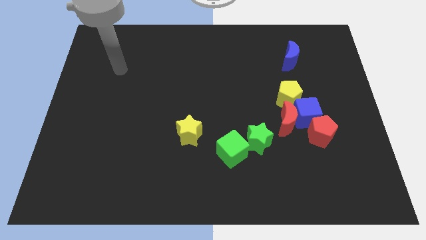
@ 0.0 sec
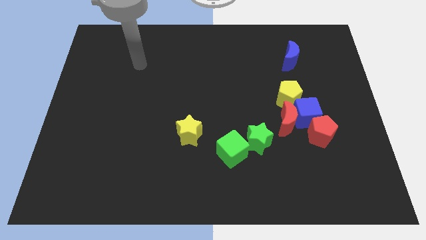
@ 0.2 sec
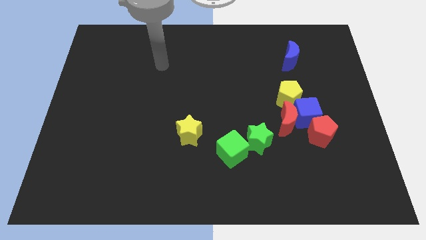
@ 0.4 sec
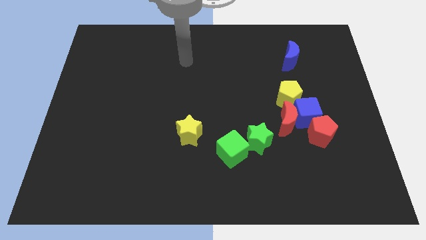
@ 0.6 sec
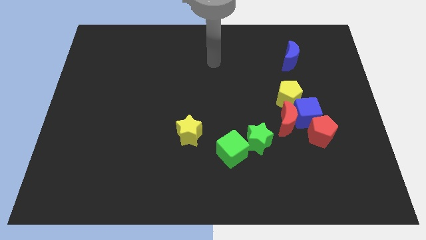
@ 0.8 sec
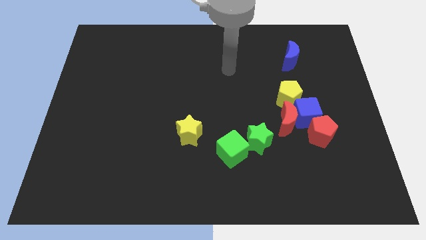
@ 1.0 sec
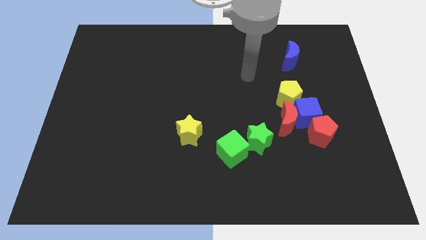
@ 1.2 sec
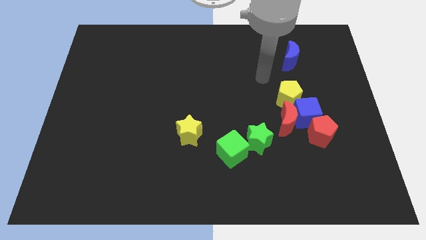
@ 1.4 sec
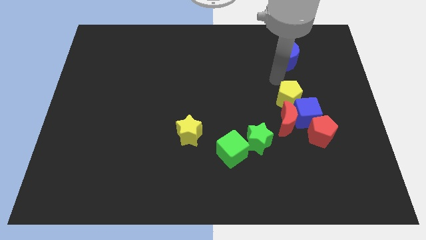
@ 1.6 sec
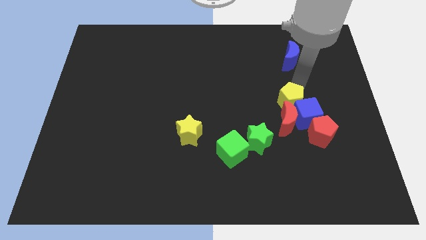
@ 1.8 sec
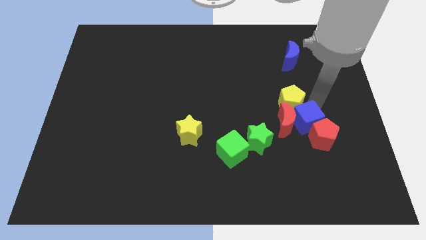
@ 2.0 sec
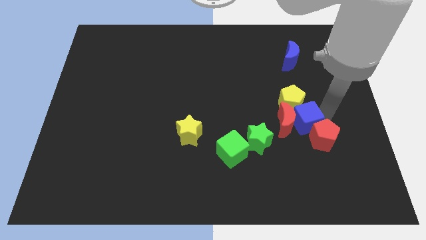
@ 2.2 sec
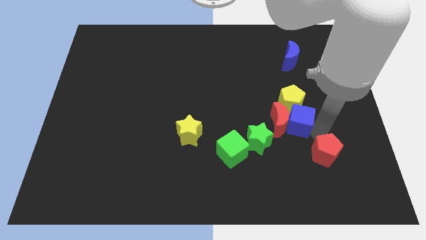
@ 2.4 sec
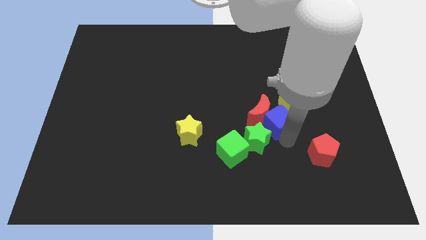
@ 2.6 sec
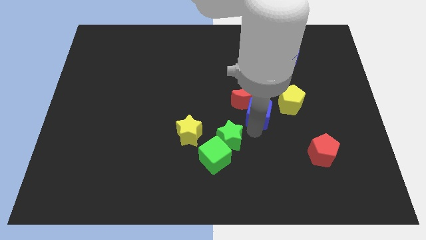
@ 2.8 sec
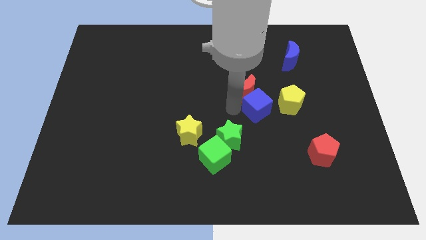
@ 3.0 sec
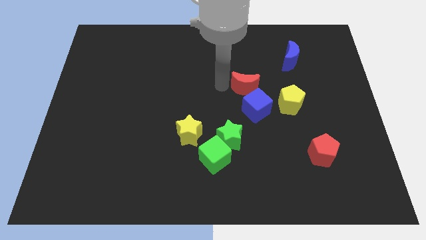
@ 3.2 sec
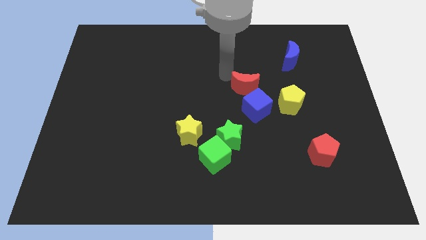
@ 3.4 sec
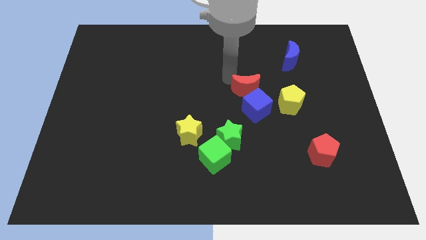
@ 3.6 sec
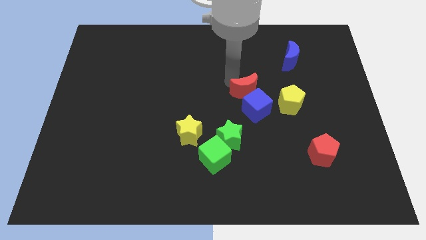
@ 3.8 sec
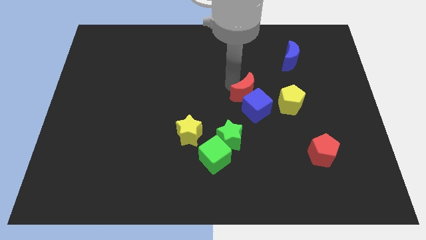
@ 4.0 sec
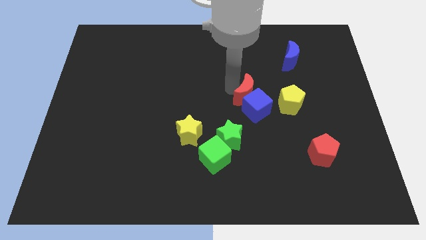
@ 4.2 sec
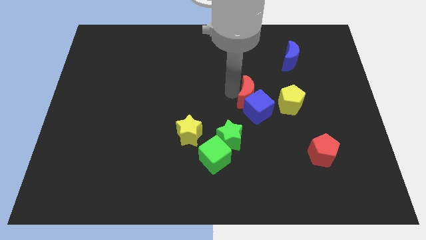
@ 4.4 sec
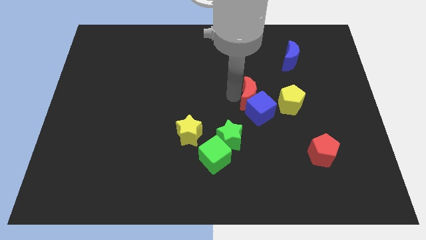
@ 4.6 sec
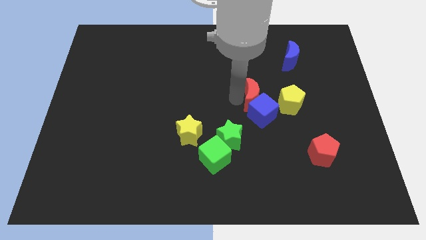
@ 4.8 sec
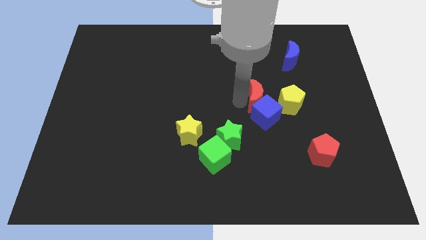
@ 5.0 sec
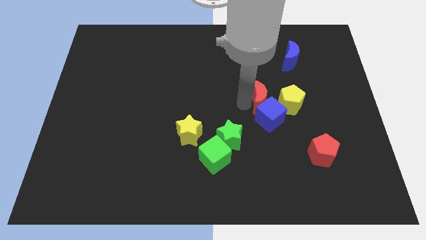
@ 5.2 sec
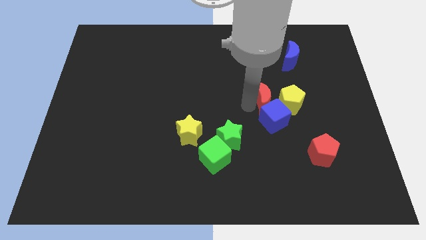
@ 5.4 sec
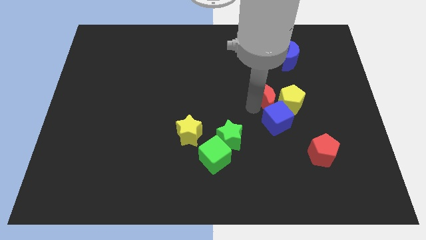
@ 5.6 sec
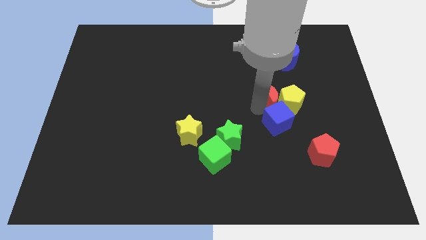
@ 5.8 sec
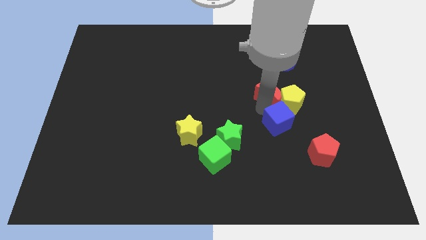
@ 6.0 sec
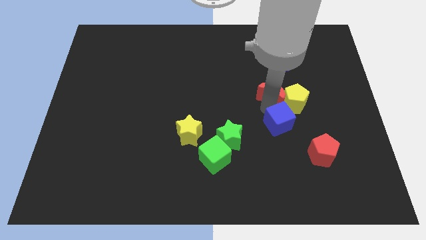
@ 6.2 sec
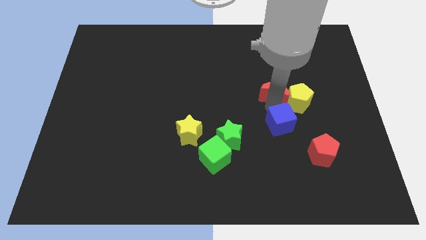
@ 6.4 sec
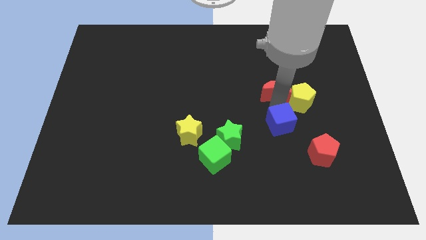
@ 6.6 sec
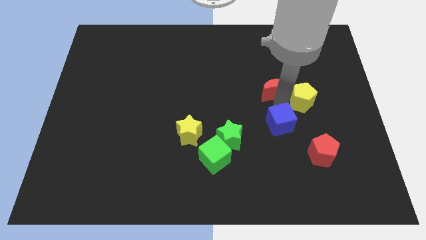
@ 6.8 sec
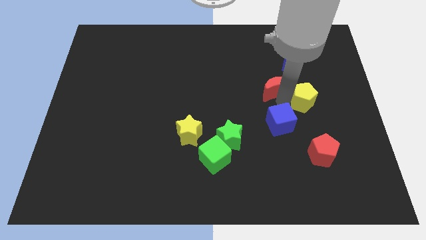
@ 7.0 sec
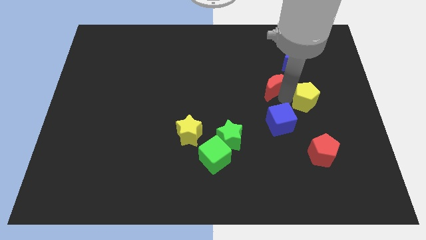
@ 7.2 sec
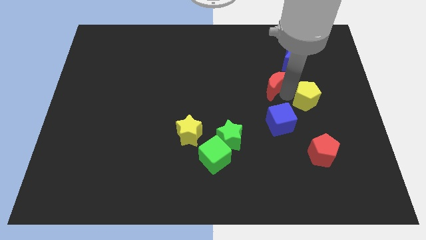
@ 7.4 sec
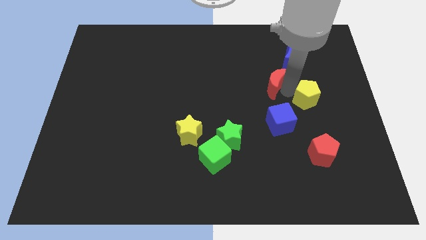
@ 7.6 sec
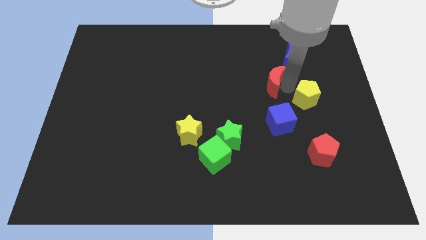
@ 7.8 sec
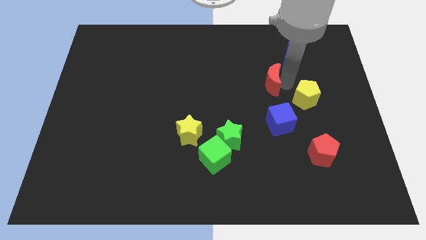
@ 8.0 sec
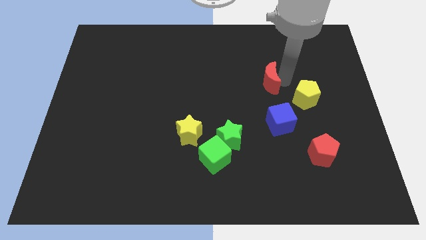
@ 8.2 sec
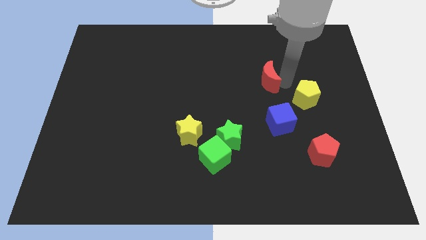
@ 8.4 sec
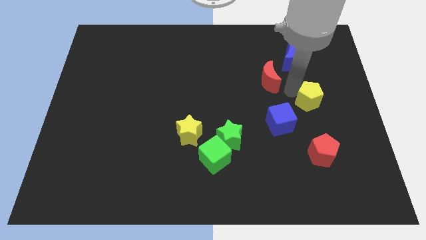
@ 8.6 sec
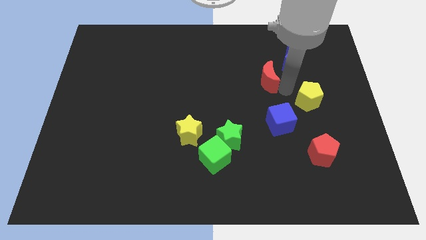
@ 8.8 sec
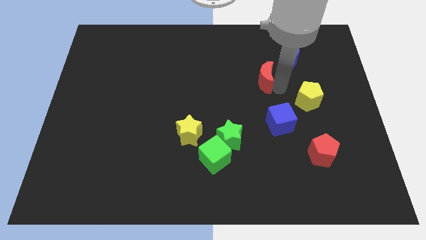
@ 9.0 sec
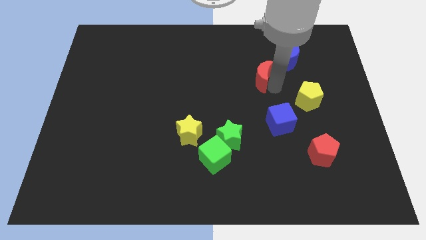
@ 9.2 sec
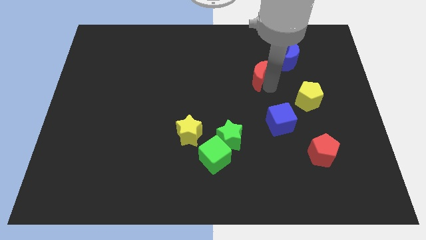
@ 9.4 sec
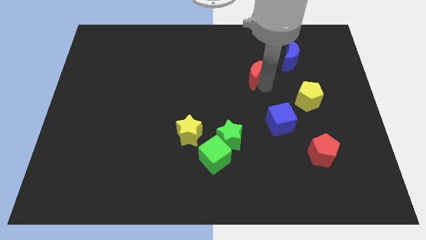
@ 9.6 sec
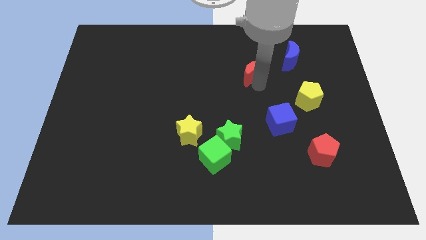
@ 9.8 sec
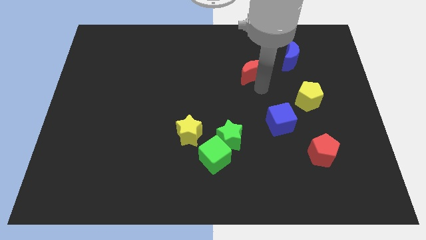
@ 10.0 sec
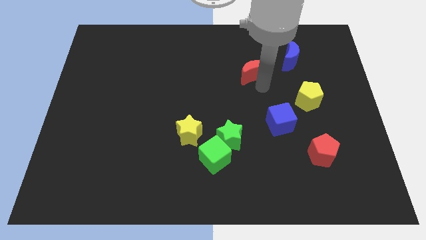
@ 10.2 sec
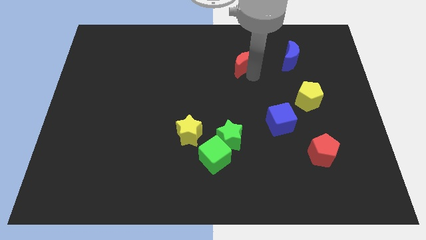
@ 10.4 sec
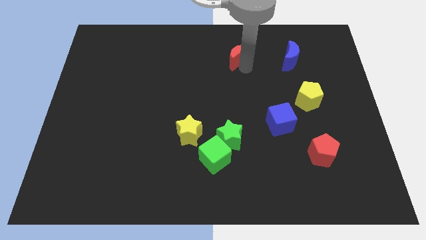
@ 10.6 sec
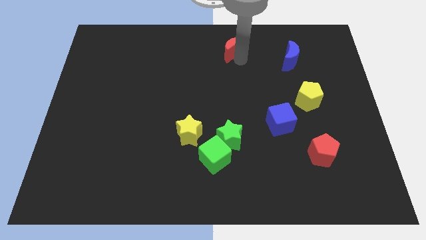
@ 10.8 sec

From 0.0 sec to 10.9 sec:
move the red moon to the top side
